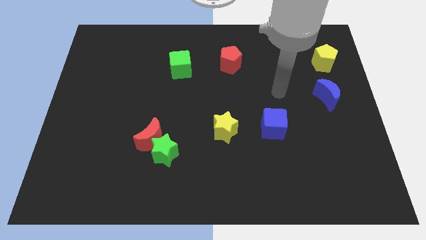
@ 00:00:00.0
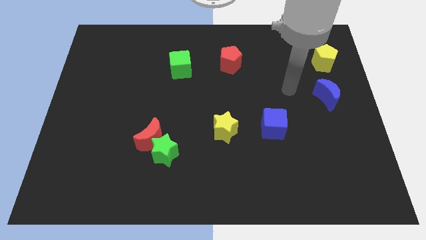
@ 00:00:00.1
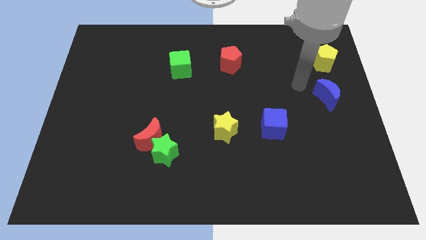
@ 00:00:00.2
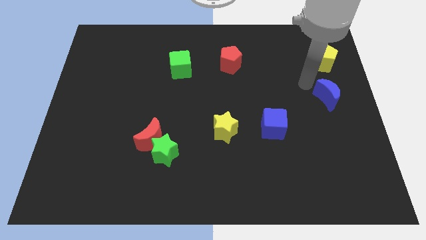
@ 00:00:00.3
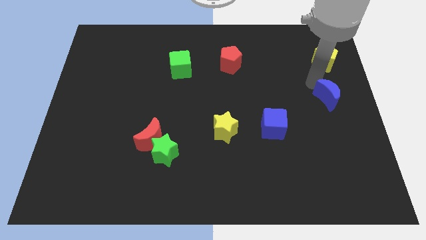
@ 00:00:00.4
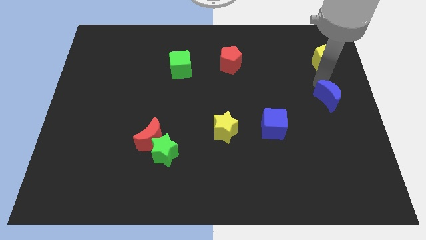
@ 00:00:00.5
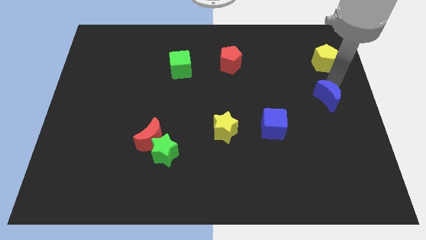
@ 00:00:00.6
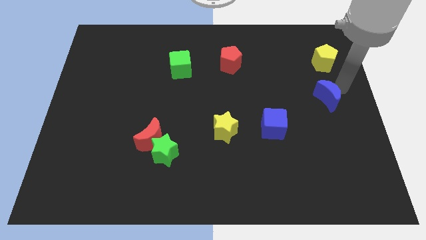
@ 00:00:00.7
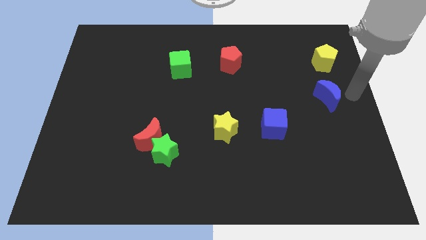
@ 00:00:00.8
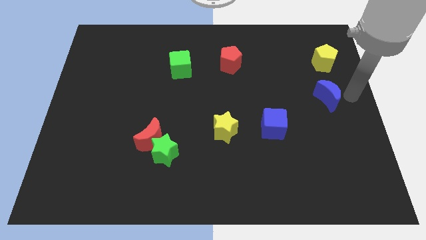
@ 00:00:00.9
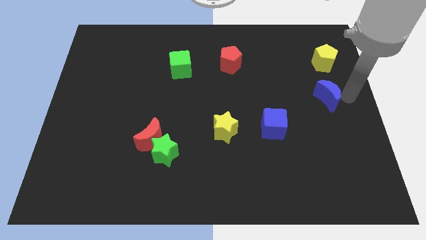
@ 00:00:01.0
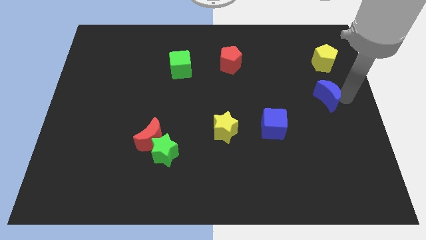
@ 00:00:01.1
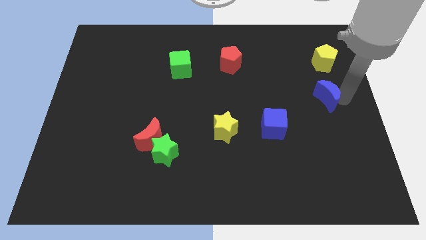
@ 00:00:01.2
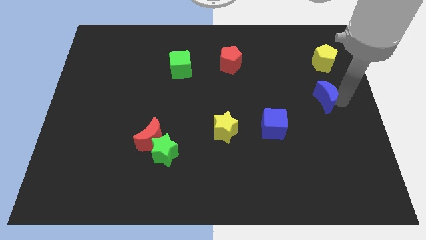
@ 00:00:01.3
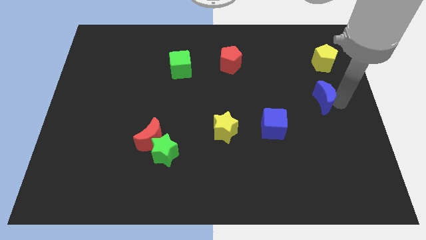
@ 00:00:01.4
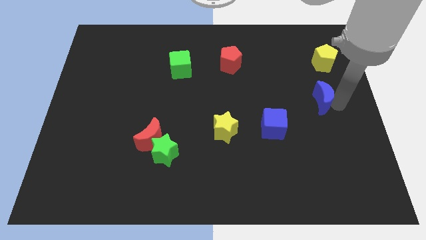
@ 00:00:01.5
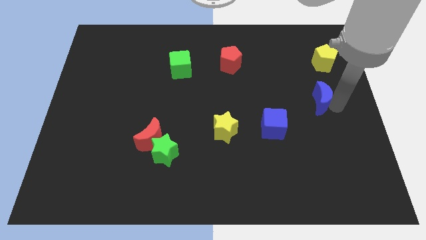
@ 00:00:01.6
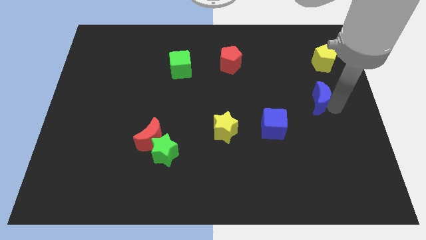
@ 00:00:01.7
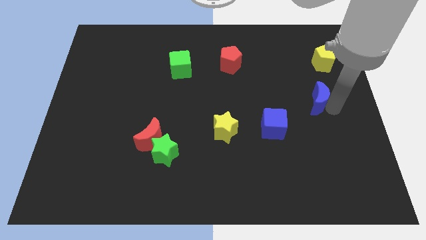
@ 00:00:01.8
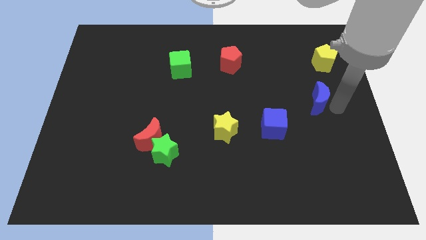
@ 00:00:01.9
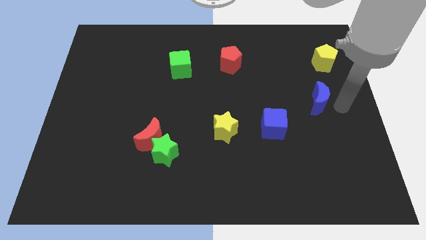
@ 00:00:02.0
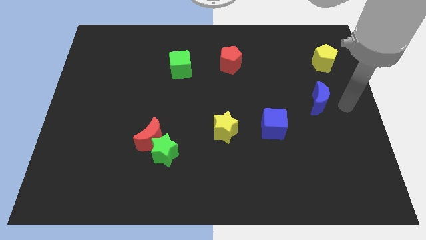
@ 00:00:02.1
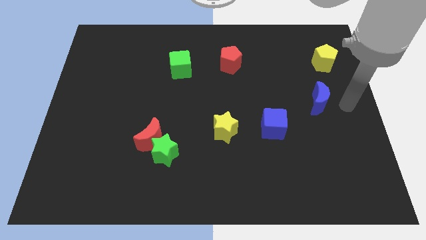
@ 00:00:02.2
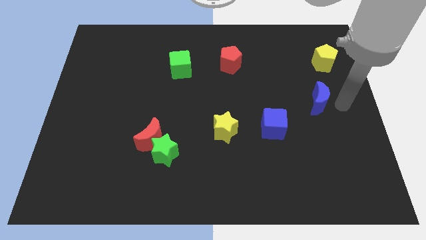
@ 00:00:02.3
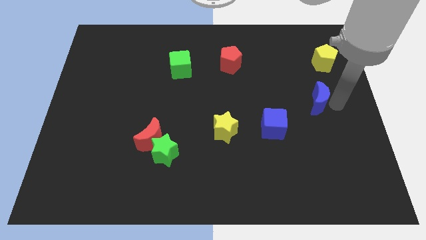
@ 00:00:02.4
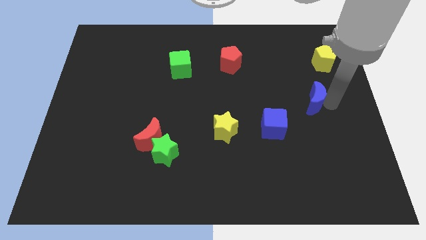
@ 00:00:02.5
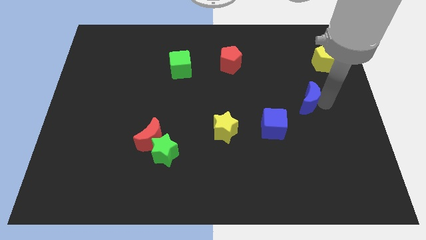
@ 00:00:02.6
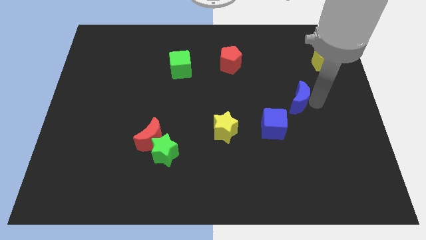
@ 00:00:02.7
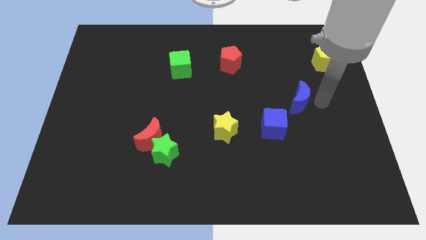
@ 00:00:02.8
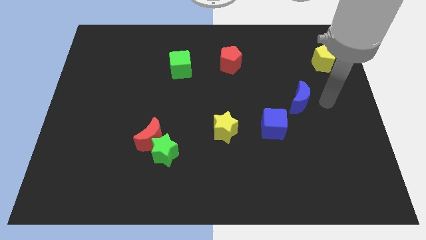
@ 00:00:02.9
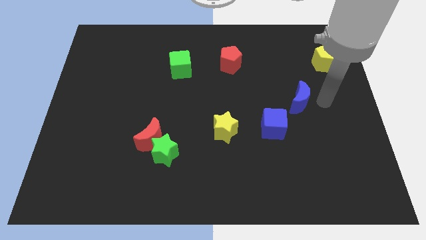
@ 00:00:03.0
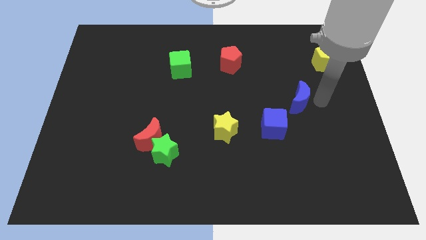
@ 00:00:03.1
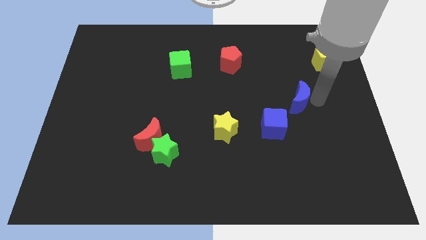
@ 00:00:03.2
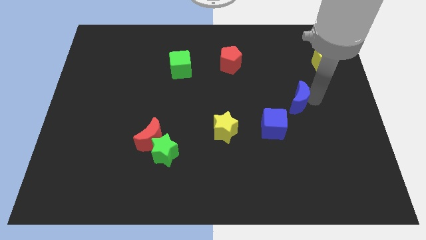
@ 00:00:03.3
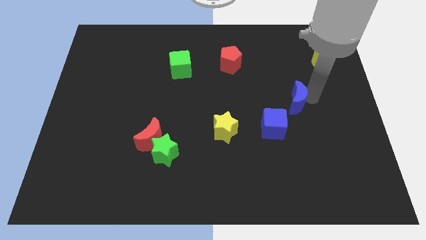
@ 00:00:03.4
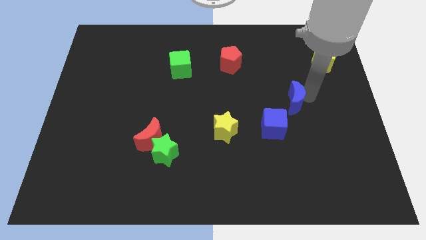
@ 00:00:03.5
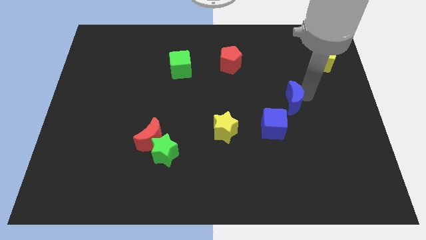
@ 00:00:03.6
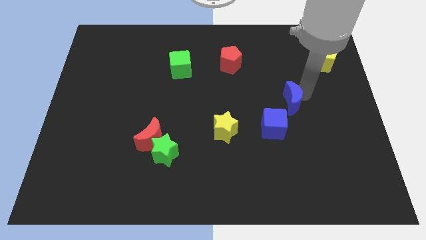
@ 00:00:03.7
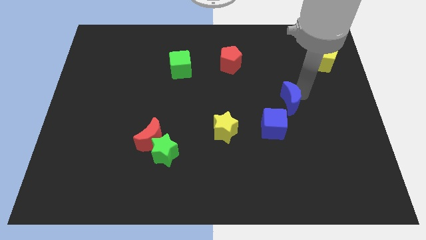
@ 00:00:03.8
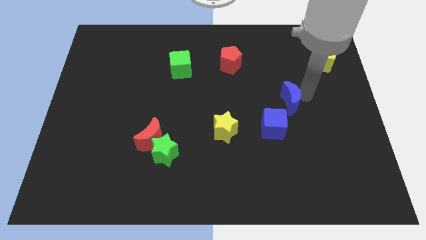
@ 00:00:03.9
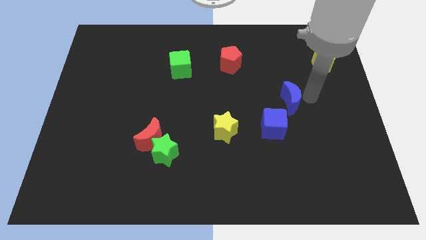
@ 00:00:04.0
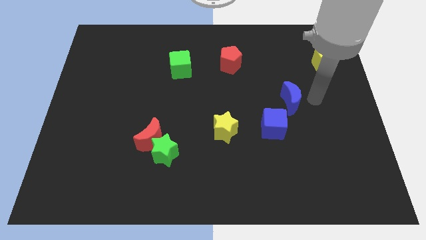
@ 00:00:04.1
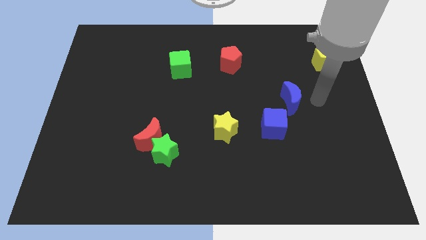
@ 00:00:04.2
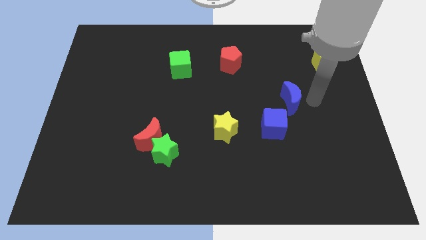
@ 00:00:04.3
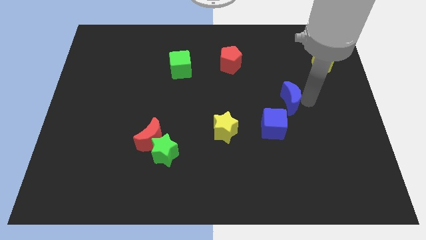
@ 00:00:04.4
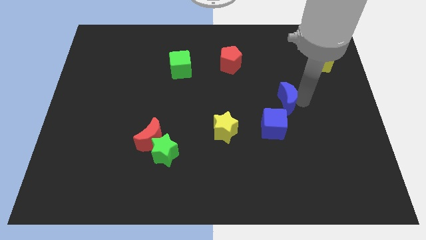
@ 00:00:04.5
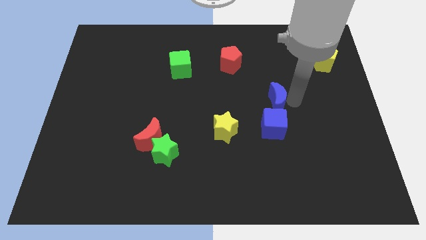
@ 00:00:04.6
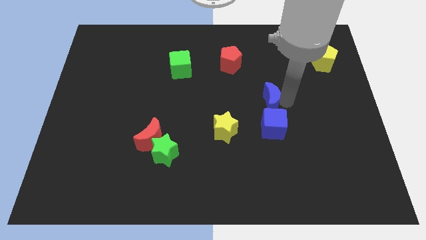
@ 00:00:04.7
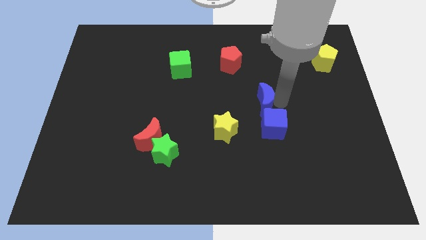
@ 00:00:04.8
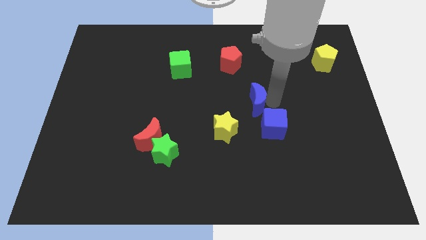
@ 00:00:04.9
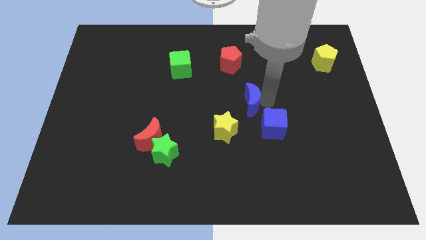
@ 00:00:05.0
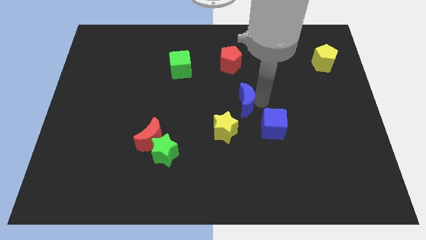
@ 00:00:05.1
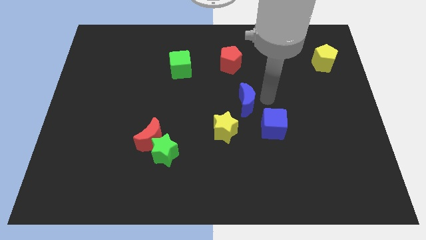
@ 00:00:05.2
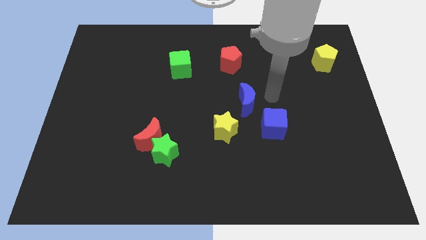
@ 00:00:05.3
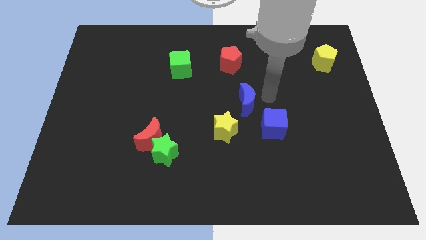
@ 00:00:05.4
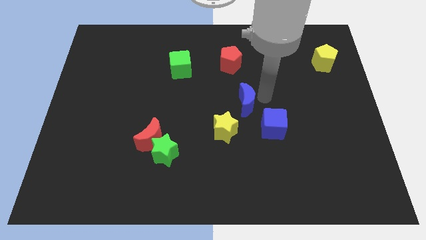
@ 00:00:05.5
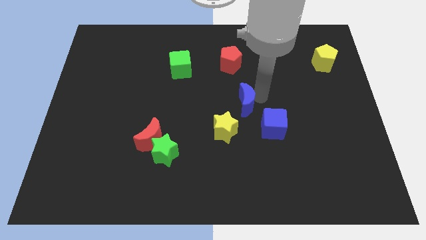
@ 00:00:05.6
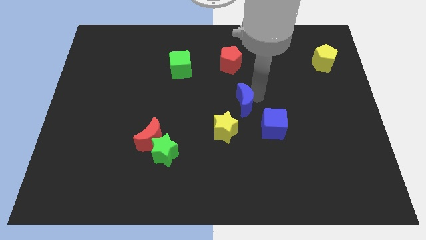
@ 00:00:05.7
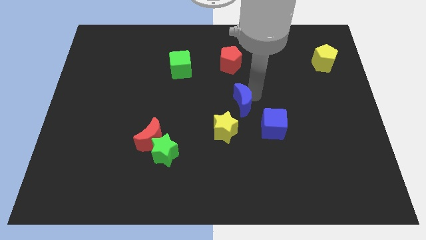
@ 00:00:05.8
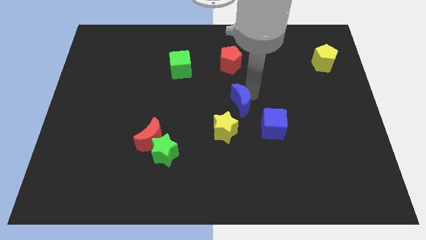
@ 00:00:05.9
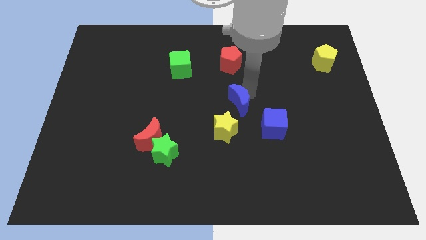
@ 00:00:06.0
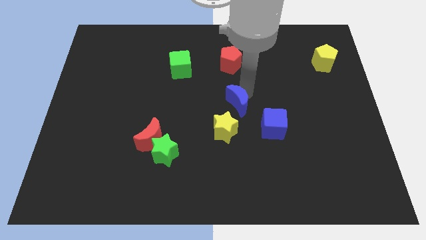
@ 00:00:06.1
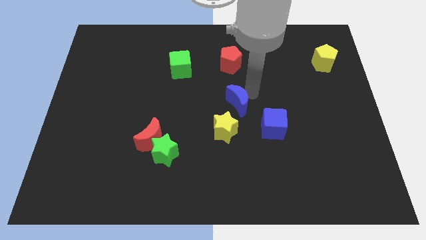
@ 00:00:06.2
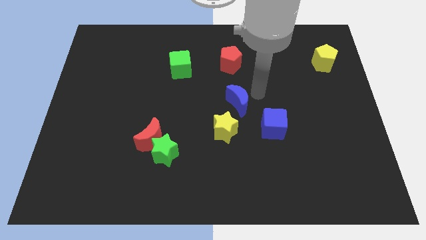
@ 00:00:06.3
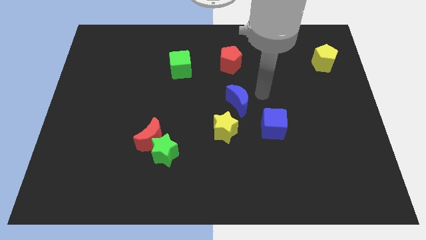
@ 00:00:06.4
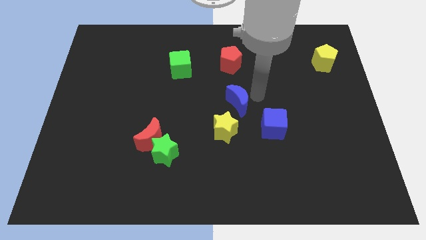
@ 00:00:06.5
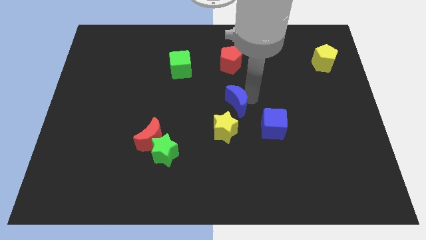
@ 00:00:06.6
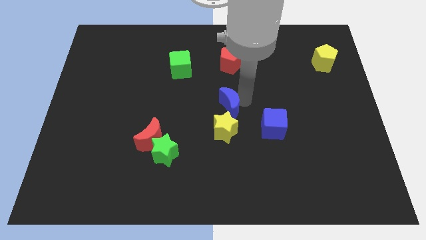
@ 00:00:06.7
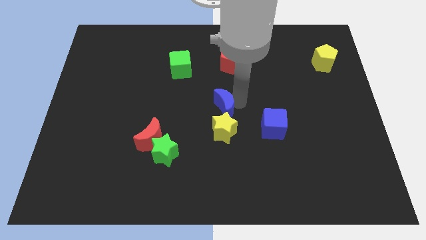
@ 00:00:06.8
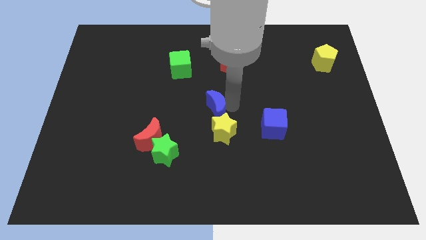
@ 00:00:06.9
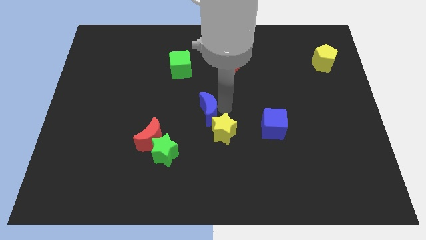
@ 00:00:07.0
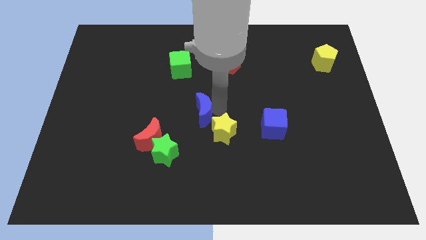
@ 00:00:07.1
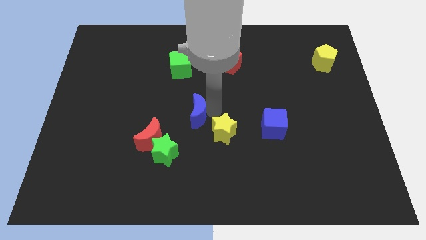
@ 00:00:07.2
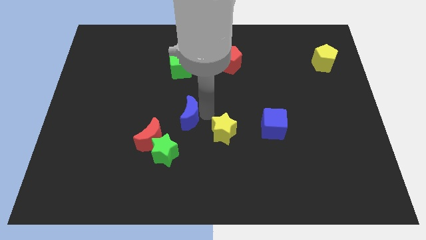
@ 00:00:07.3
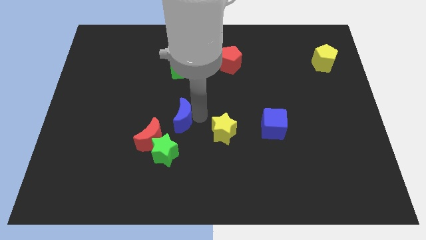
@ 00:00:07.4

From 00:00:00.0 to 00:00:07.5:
put the blue moon to the top of the green star
